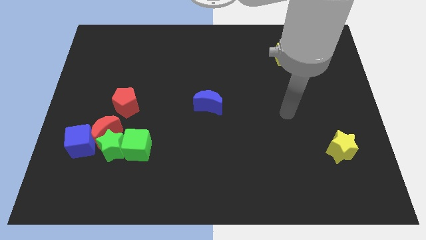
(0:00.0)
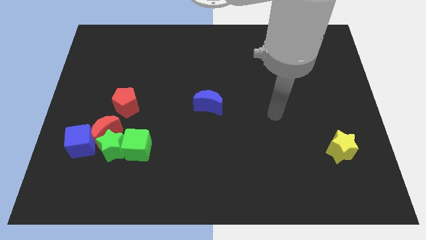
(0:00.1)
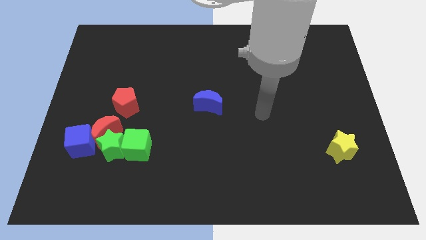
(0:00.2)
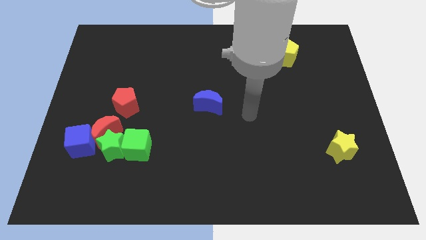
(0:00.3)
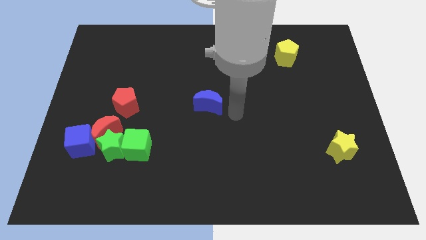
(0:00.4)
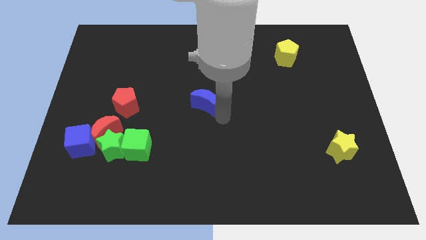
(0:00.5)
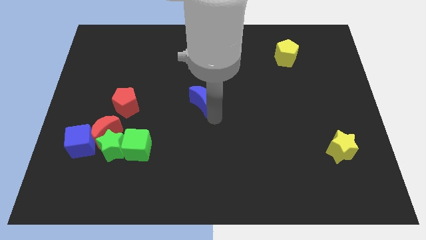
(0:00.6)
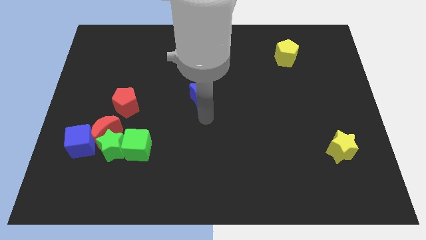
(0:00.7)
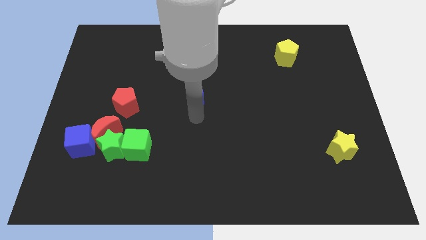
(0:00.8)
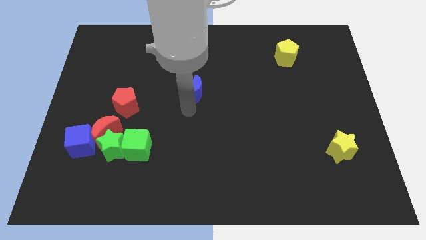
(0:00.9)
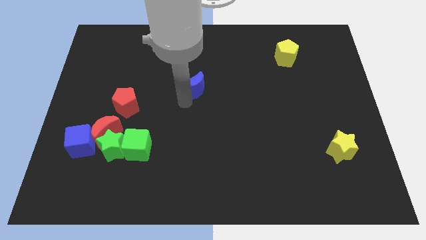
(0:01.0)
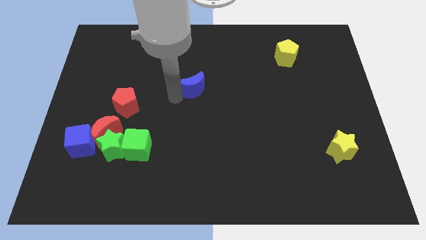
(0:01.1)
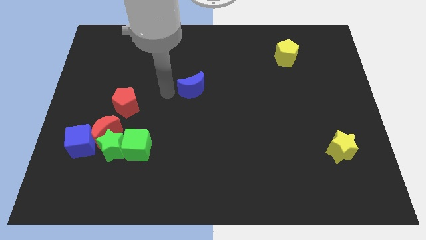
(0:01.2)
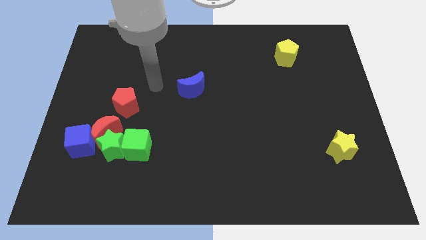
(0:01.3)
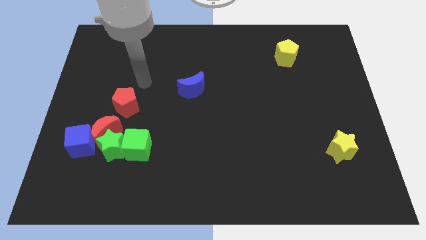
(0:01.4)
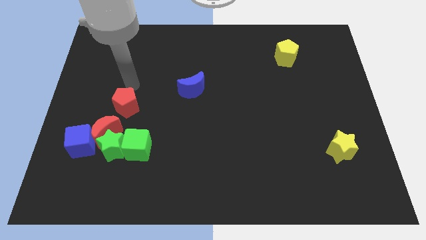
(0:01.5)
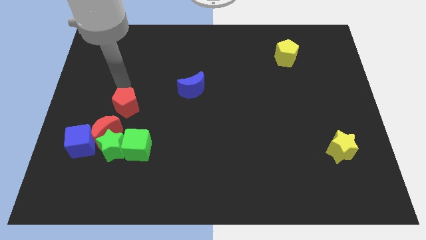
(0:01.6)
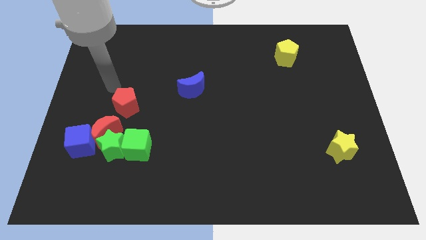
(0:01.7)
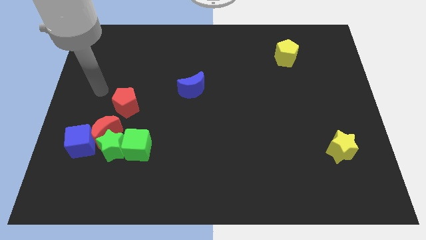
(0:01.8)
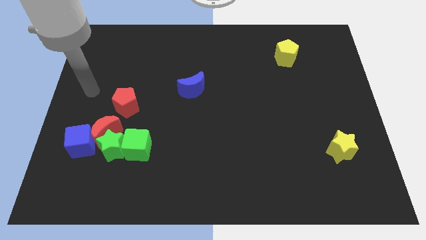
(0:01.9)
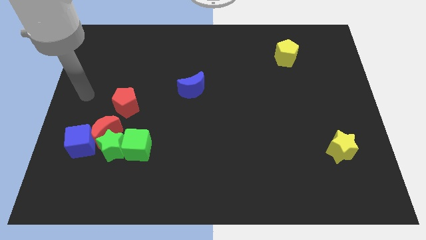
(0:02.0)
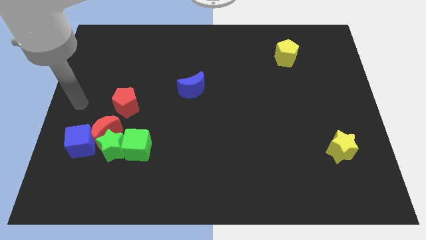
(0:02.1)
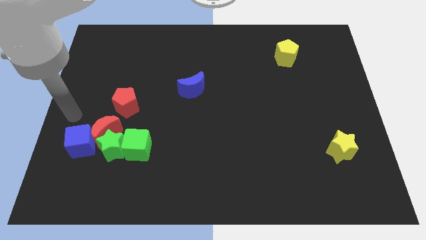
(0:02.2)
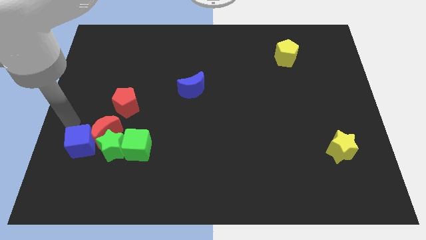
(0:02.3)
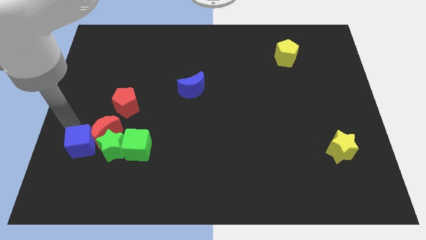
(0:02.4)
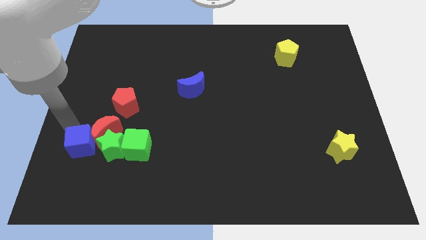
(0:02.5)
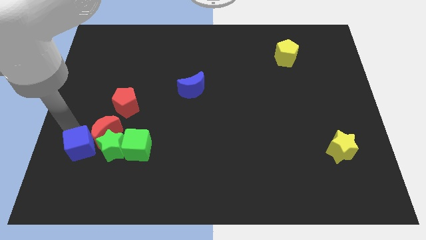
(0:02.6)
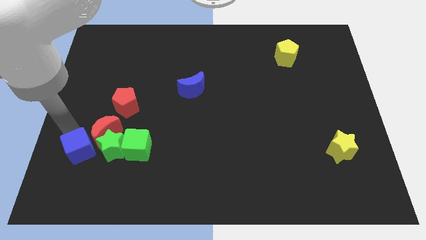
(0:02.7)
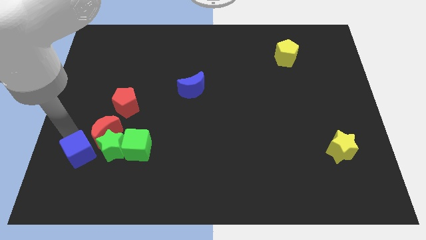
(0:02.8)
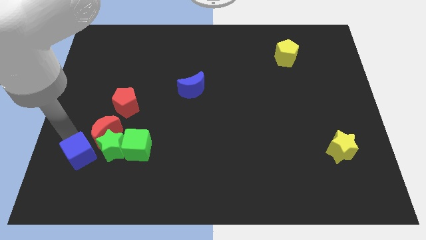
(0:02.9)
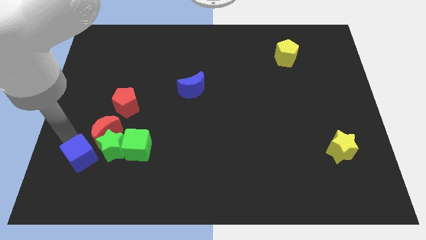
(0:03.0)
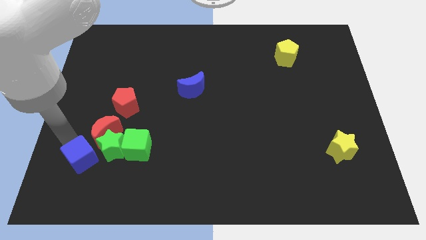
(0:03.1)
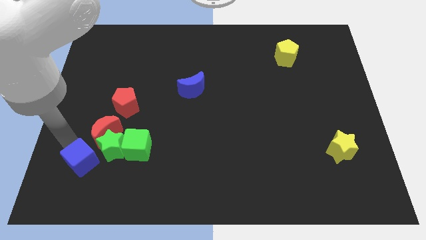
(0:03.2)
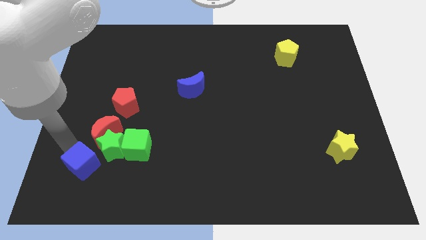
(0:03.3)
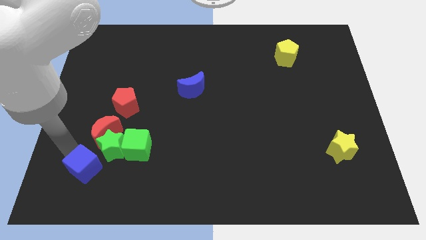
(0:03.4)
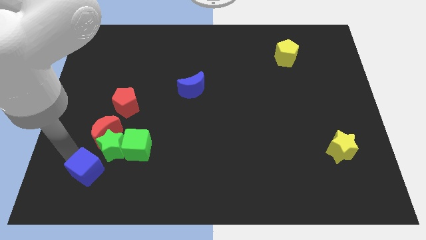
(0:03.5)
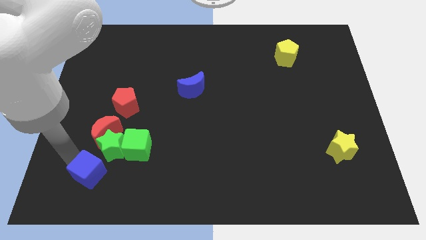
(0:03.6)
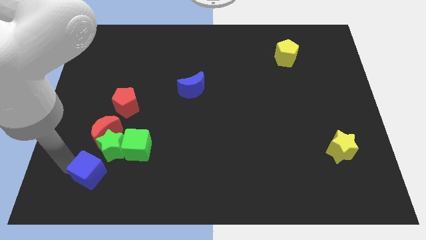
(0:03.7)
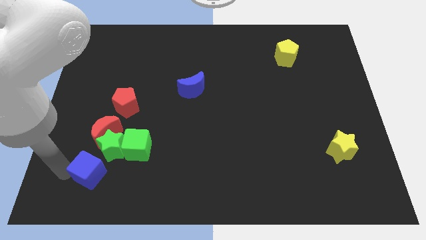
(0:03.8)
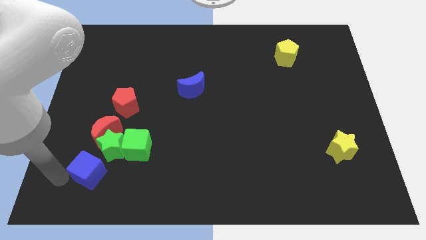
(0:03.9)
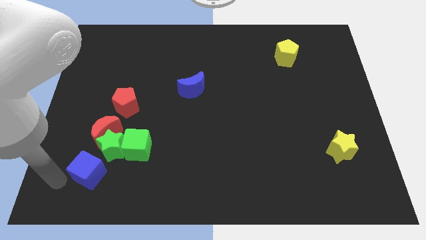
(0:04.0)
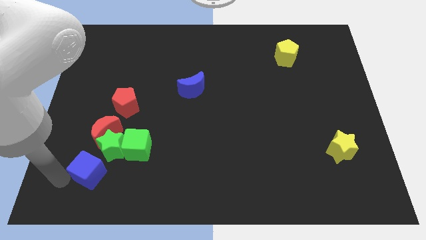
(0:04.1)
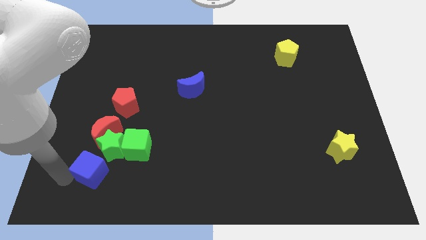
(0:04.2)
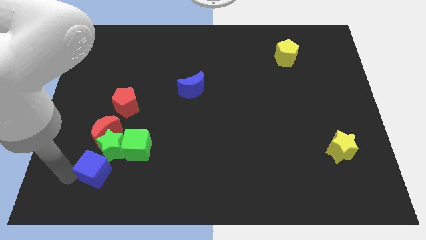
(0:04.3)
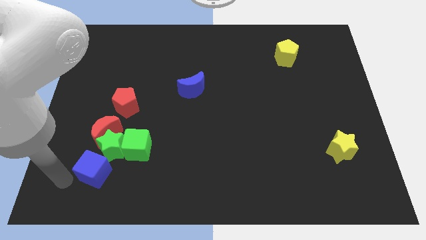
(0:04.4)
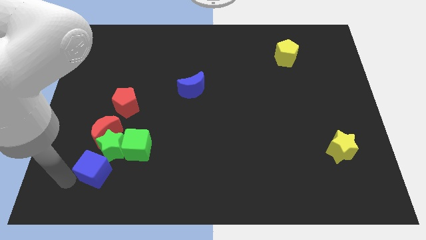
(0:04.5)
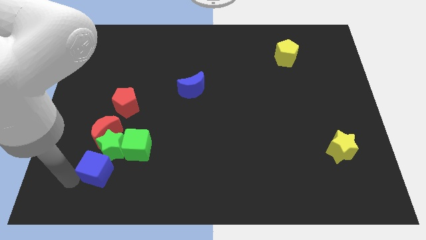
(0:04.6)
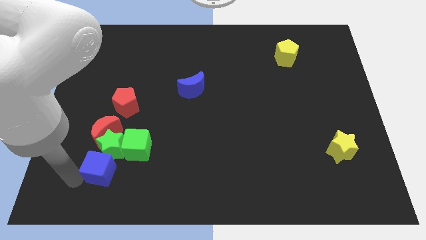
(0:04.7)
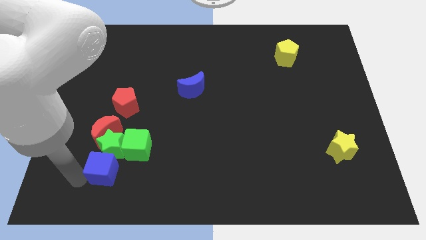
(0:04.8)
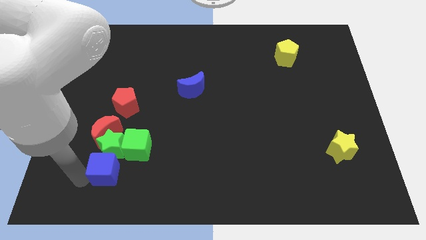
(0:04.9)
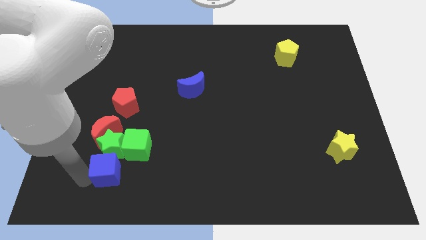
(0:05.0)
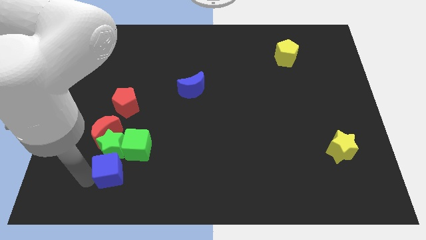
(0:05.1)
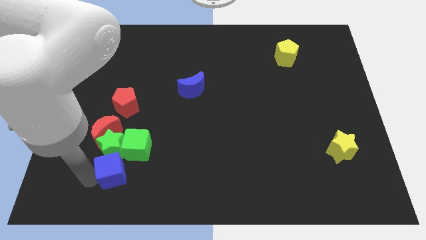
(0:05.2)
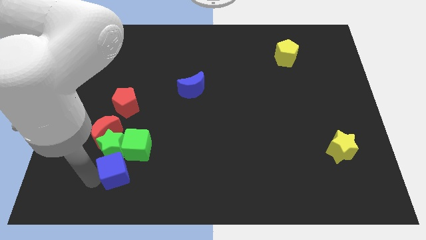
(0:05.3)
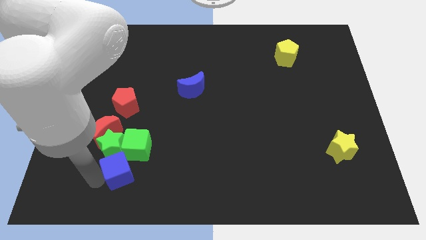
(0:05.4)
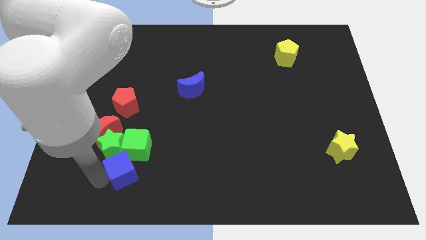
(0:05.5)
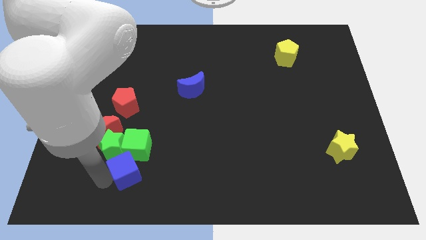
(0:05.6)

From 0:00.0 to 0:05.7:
put the blue cube close to the green cube

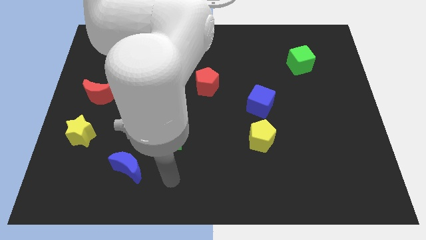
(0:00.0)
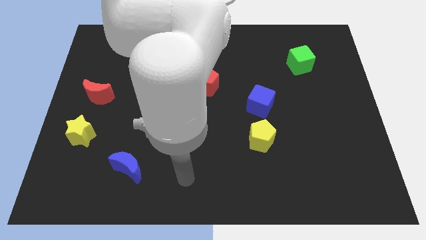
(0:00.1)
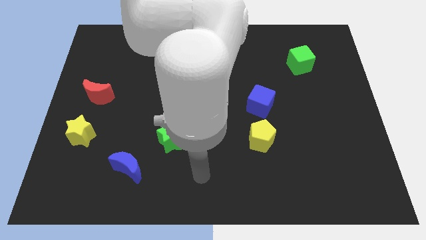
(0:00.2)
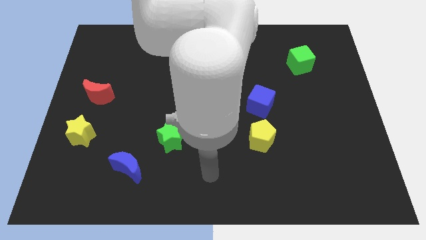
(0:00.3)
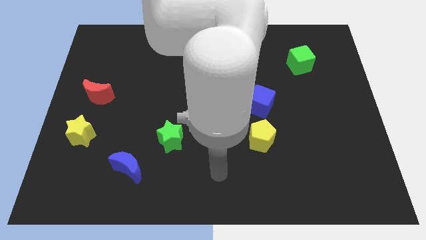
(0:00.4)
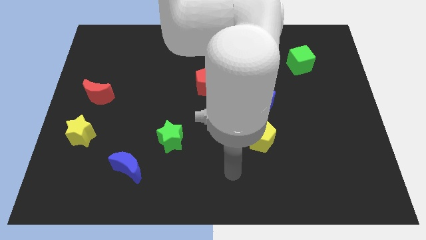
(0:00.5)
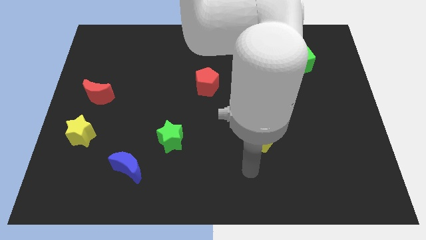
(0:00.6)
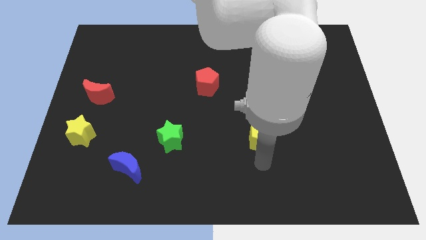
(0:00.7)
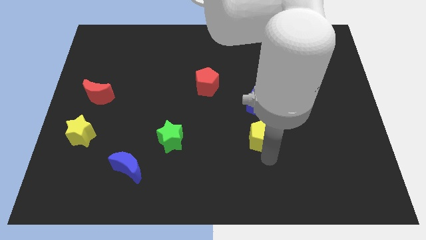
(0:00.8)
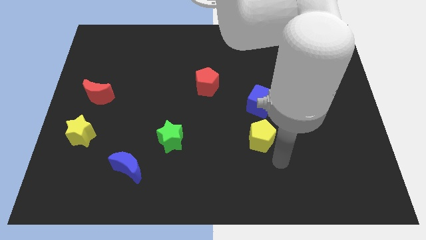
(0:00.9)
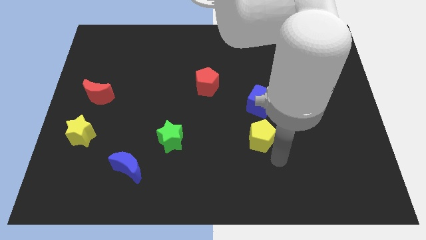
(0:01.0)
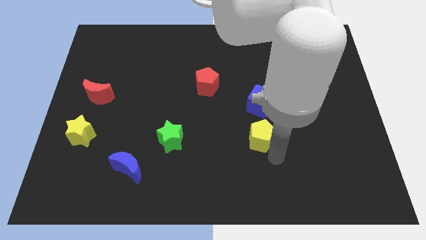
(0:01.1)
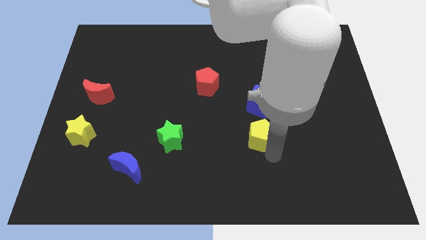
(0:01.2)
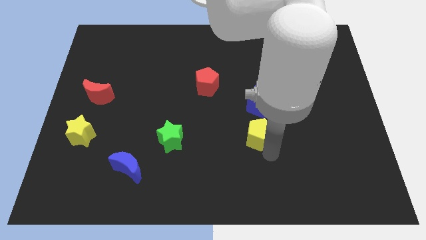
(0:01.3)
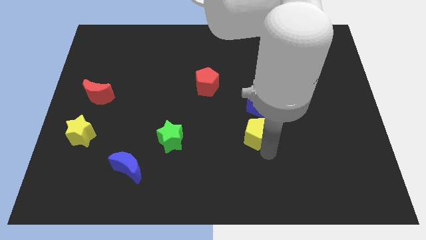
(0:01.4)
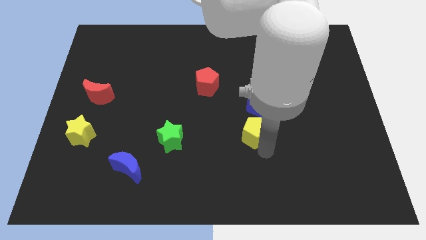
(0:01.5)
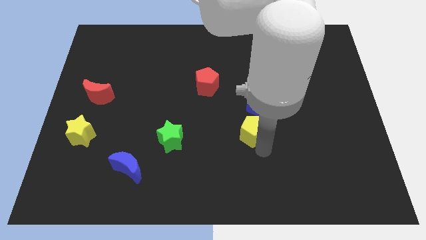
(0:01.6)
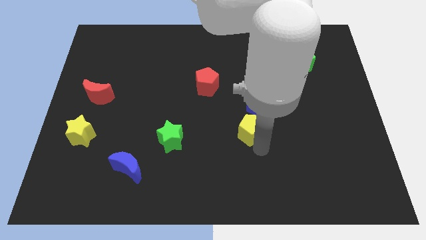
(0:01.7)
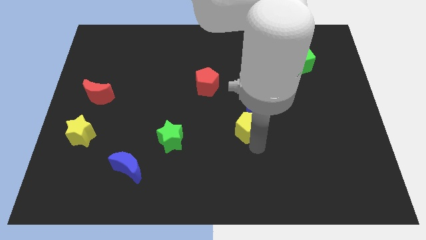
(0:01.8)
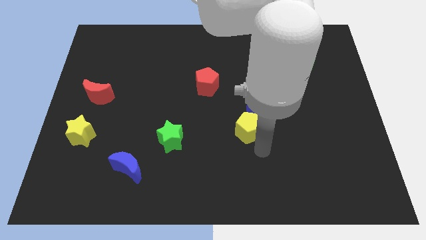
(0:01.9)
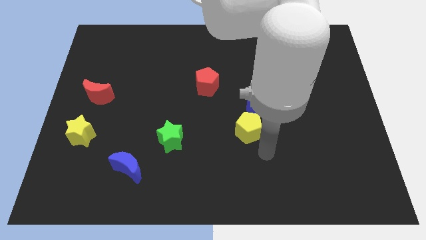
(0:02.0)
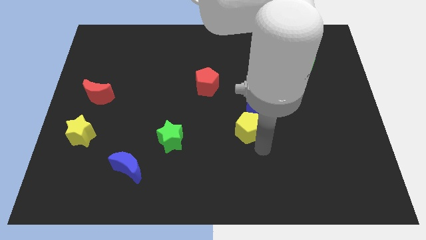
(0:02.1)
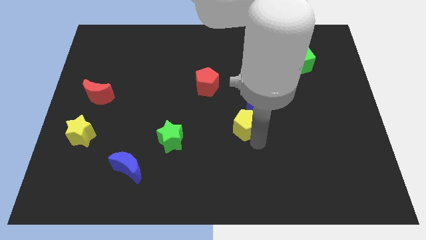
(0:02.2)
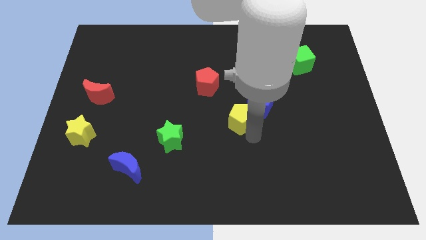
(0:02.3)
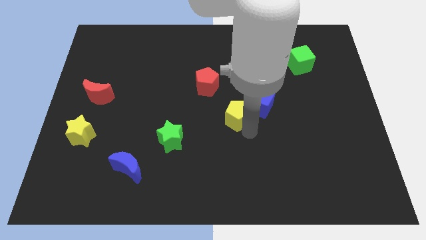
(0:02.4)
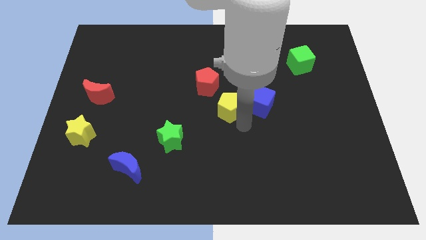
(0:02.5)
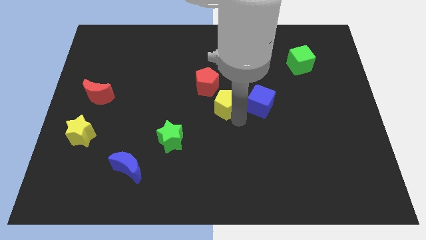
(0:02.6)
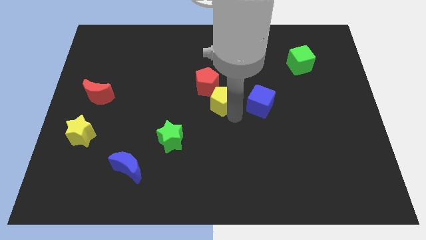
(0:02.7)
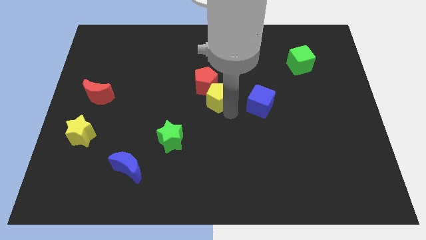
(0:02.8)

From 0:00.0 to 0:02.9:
push the yellow pentagon next to the red pentagon
